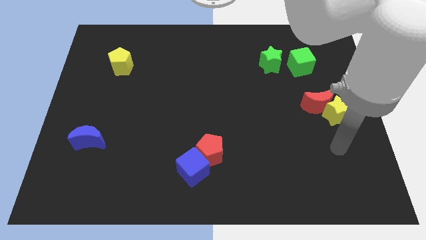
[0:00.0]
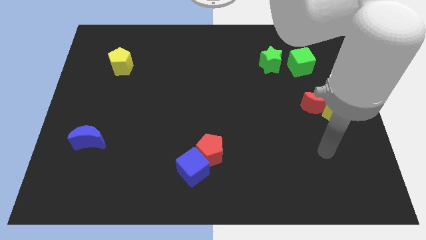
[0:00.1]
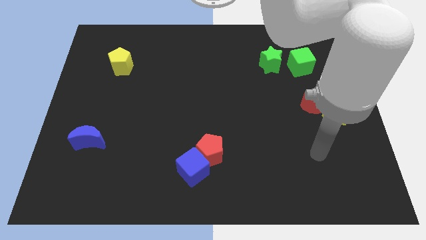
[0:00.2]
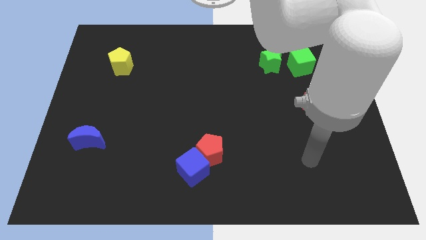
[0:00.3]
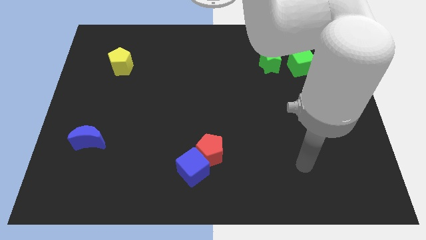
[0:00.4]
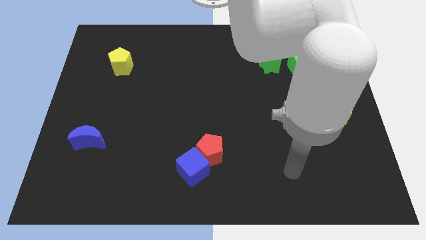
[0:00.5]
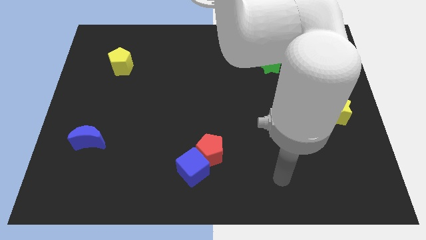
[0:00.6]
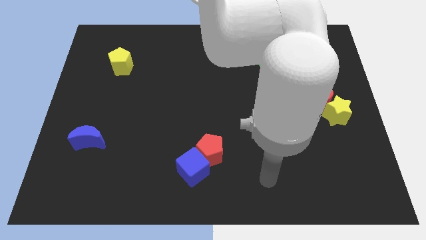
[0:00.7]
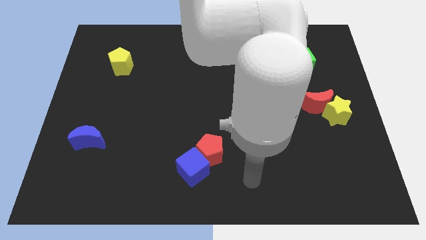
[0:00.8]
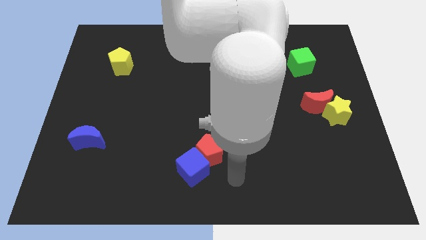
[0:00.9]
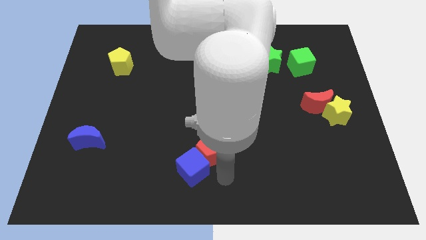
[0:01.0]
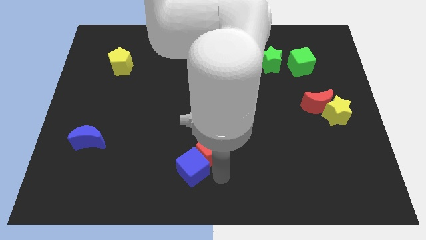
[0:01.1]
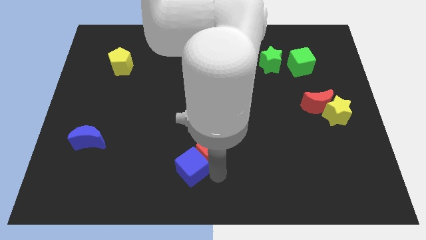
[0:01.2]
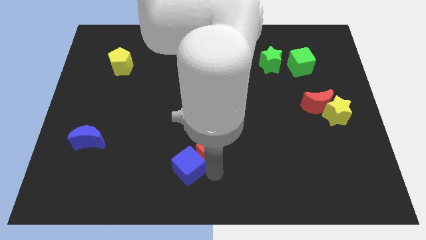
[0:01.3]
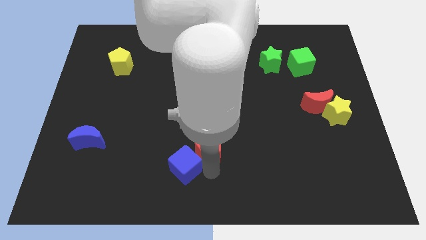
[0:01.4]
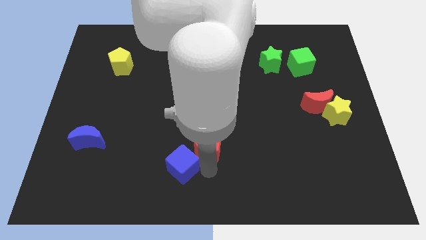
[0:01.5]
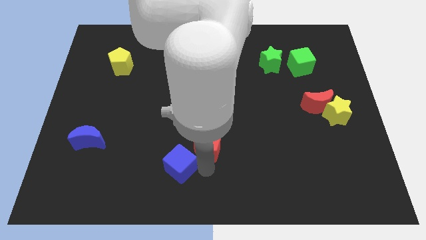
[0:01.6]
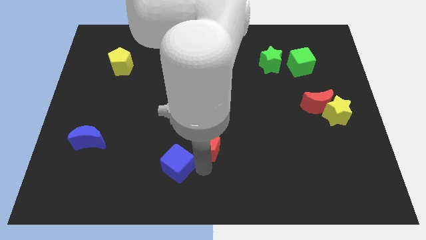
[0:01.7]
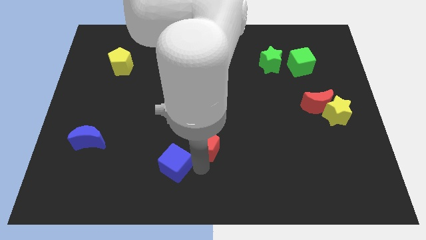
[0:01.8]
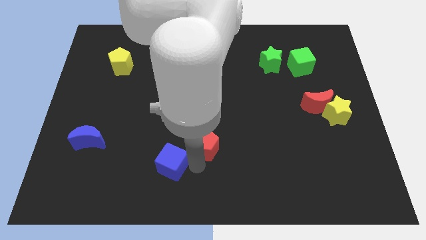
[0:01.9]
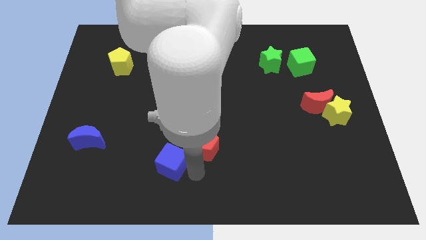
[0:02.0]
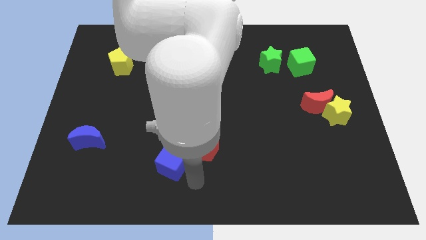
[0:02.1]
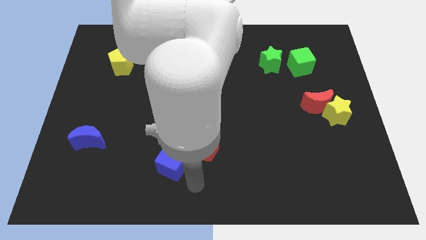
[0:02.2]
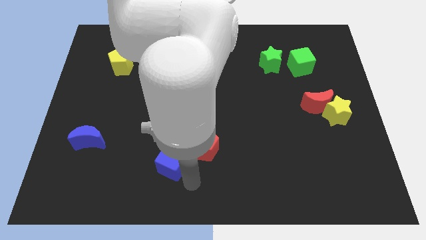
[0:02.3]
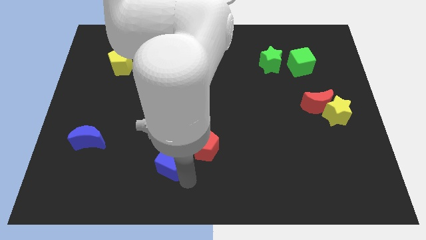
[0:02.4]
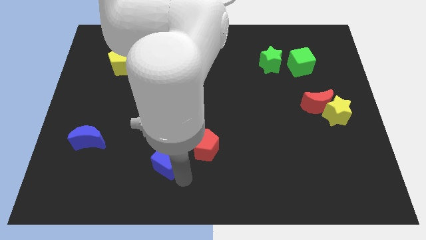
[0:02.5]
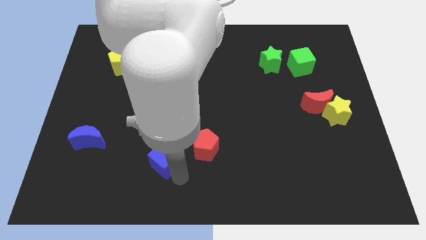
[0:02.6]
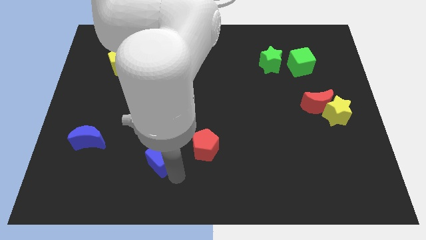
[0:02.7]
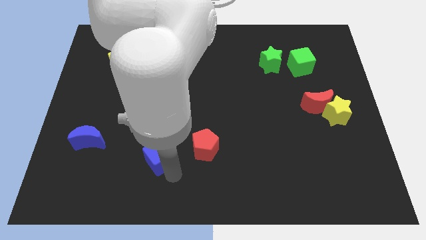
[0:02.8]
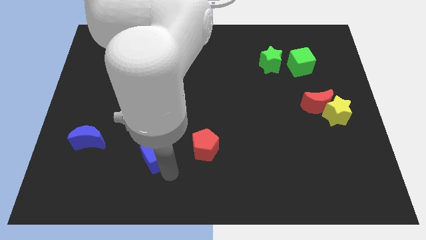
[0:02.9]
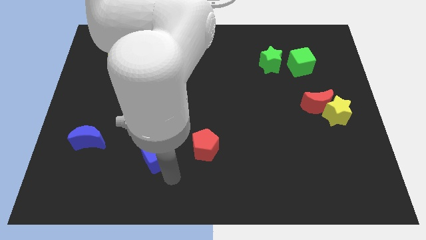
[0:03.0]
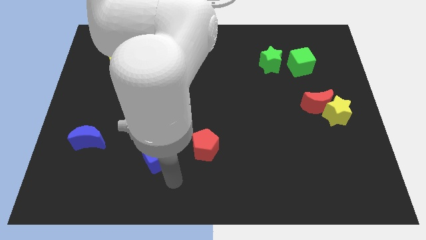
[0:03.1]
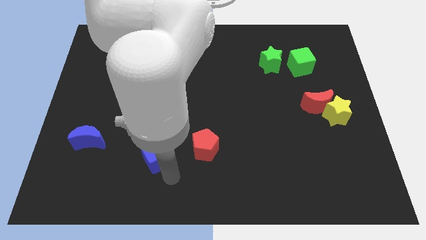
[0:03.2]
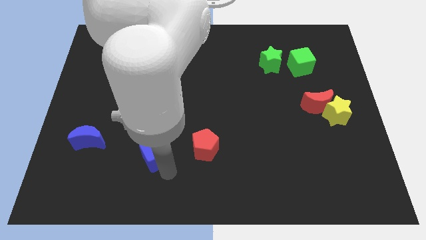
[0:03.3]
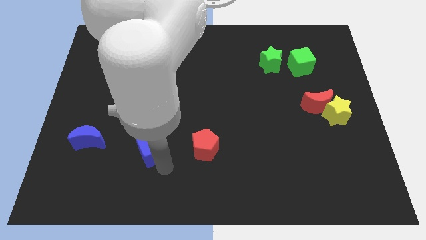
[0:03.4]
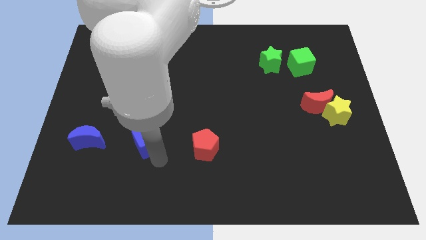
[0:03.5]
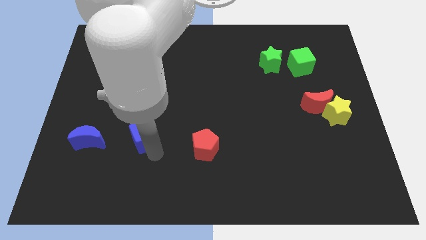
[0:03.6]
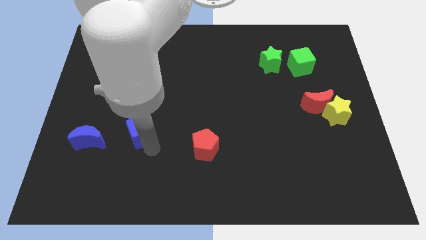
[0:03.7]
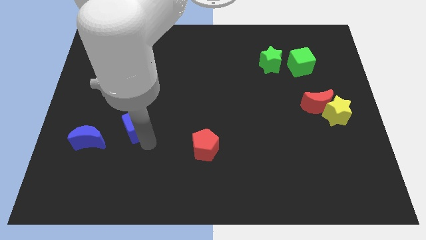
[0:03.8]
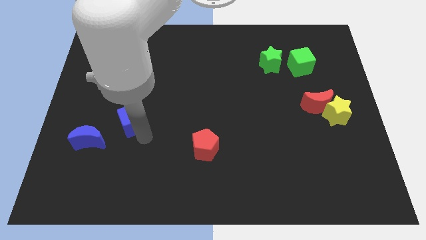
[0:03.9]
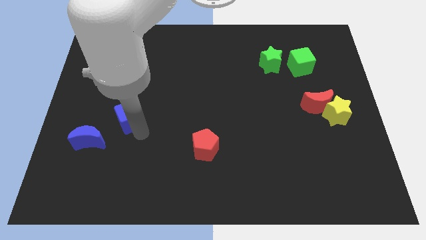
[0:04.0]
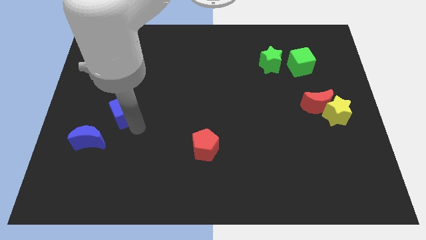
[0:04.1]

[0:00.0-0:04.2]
move the blue cube diagonally upwards and to the left

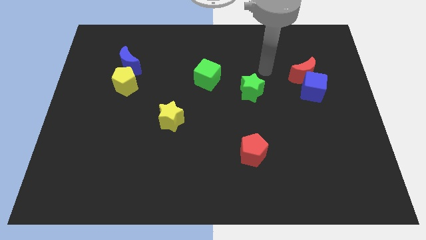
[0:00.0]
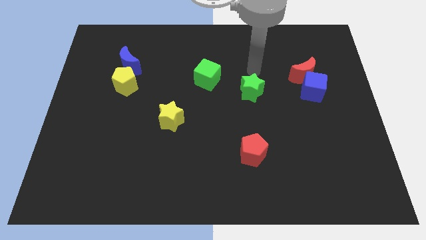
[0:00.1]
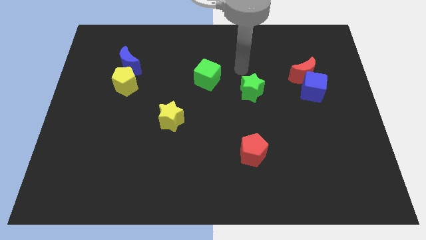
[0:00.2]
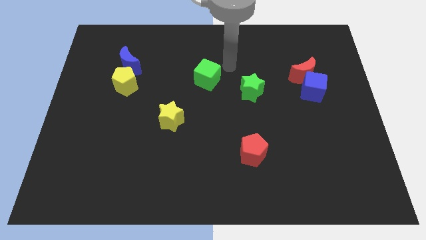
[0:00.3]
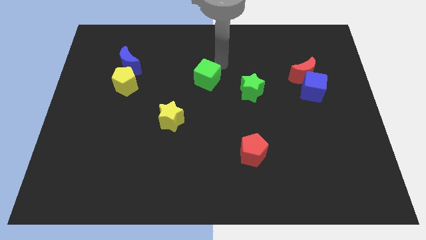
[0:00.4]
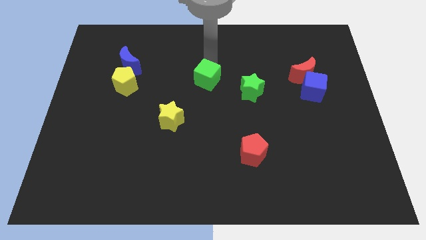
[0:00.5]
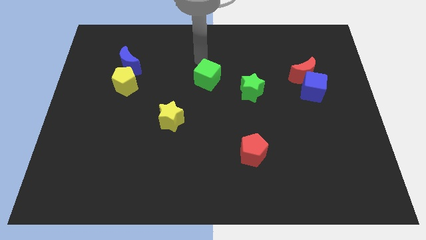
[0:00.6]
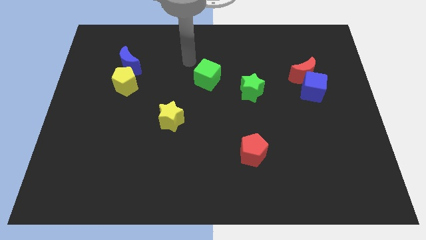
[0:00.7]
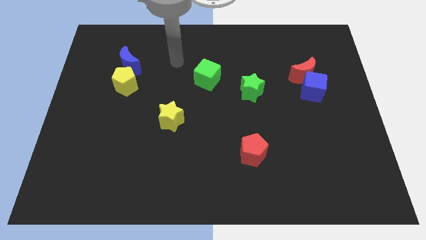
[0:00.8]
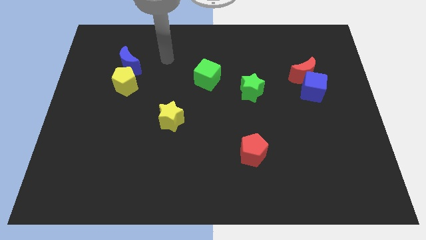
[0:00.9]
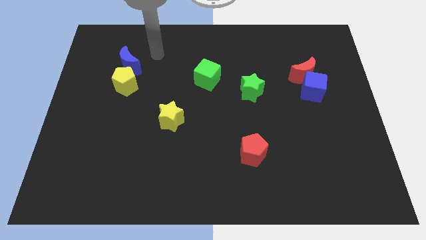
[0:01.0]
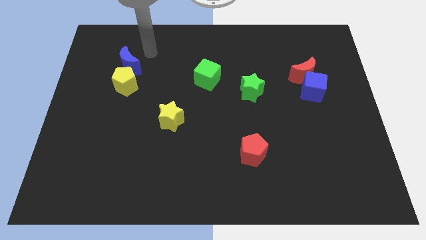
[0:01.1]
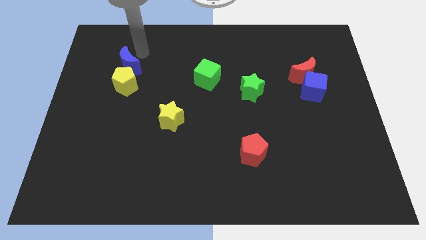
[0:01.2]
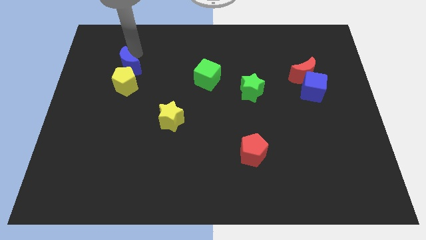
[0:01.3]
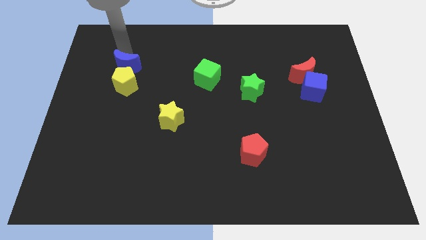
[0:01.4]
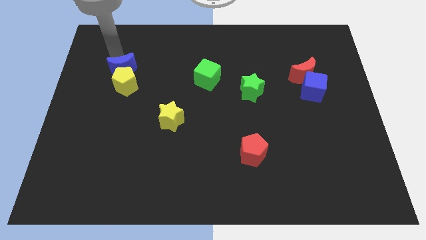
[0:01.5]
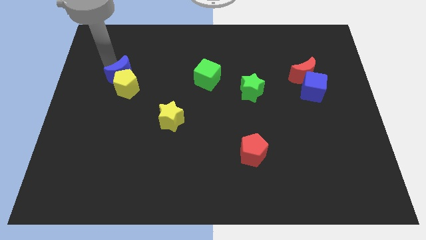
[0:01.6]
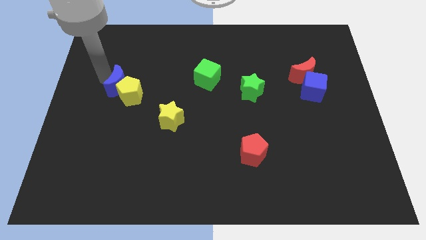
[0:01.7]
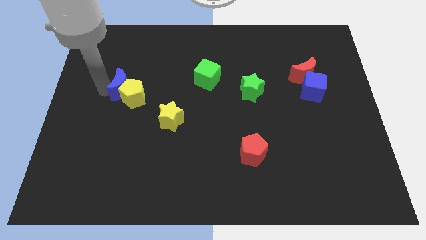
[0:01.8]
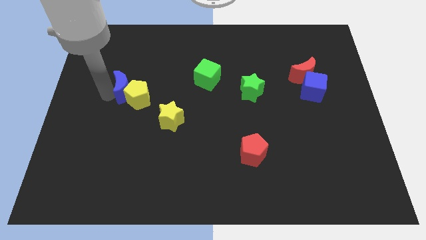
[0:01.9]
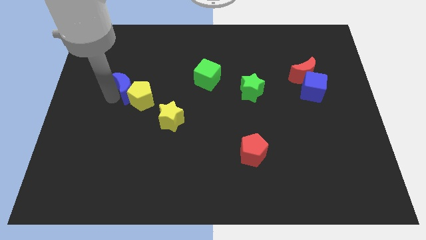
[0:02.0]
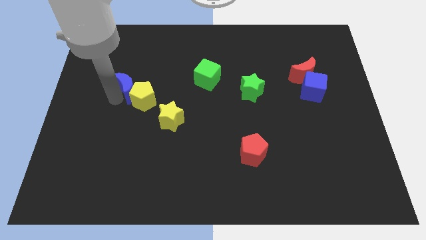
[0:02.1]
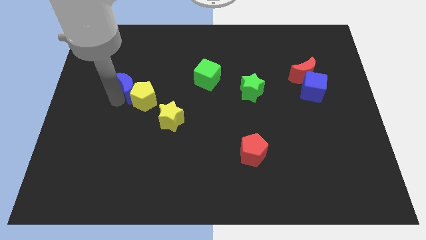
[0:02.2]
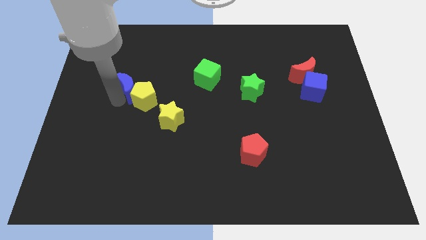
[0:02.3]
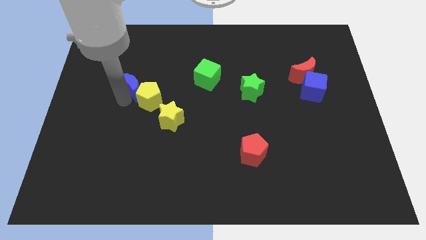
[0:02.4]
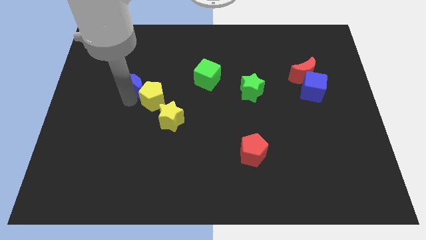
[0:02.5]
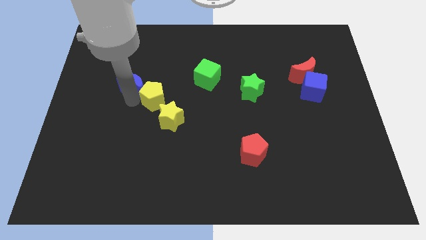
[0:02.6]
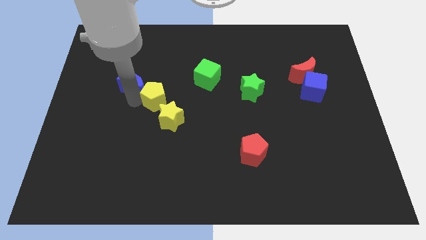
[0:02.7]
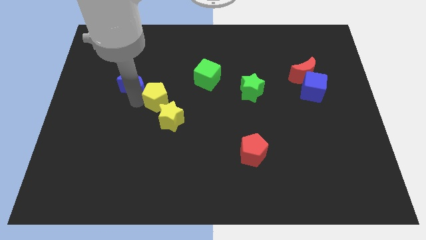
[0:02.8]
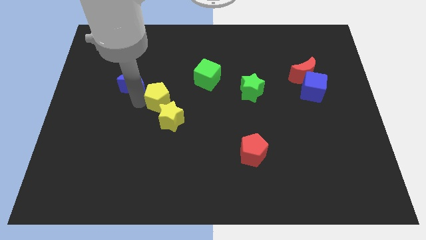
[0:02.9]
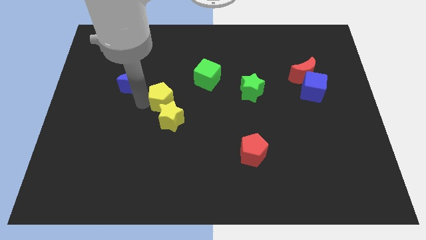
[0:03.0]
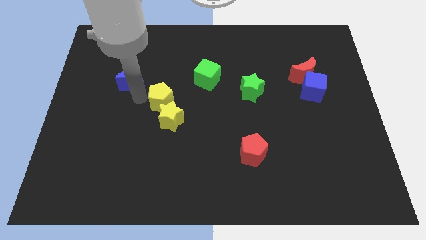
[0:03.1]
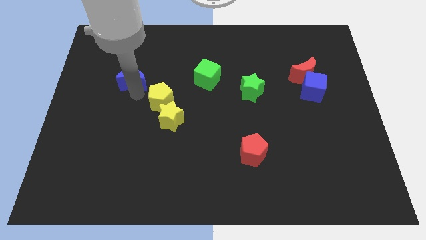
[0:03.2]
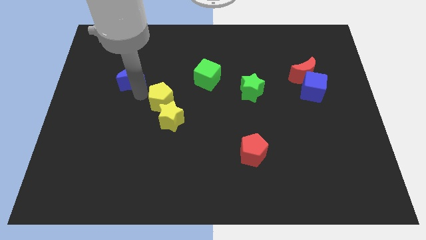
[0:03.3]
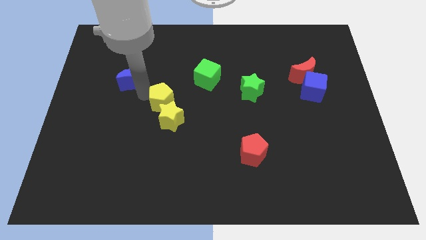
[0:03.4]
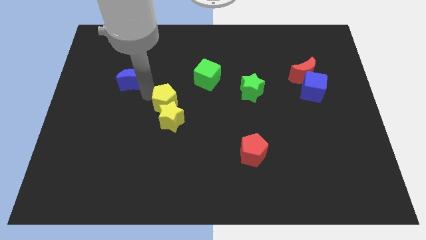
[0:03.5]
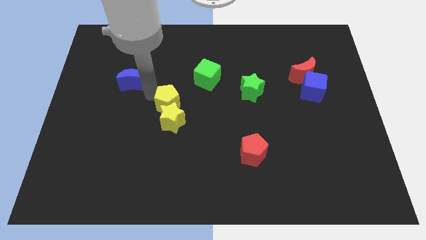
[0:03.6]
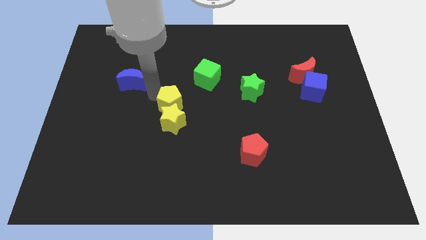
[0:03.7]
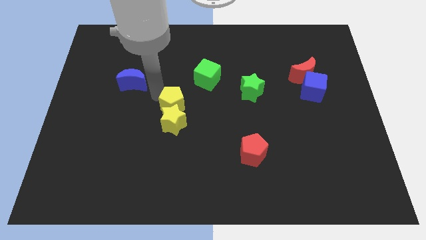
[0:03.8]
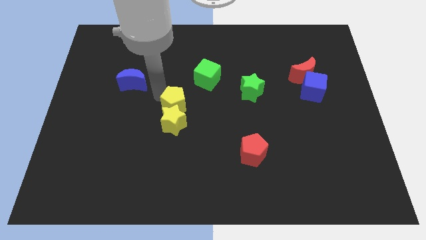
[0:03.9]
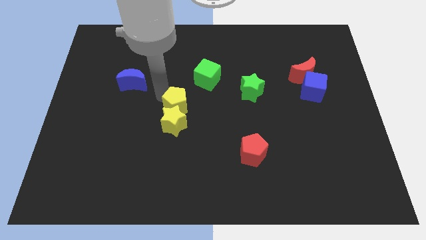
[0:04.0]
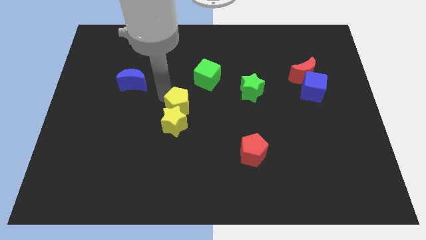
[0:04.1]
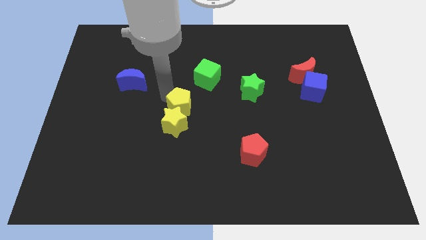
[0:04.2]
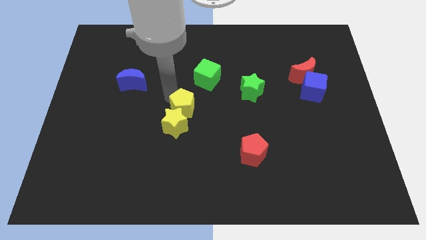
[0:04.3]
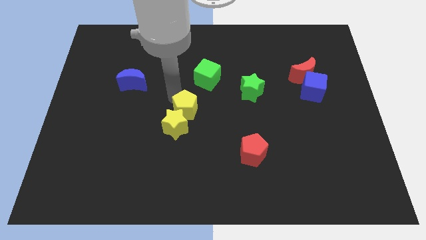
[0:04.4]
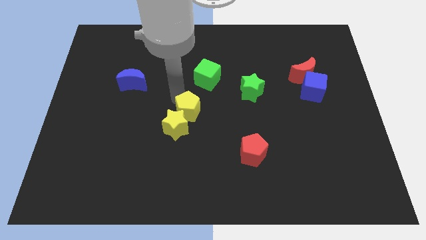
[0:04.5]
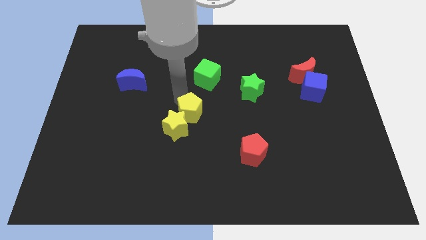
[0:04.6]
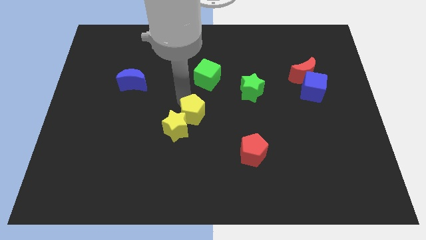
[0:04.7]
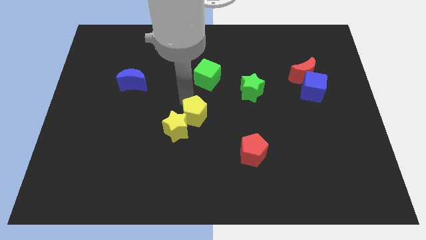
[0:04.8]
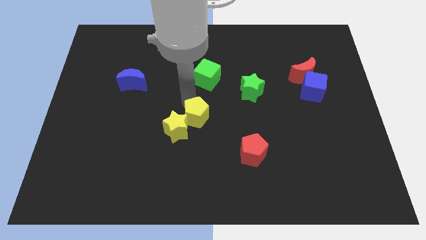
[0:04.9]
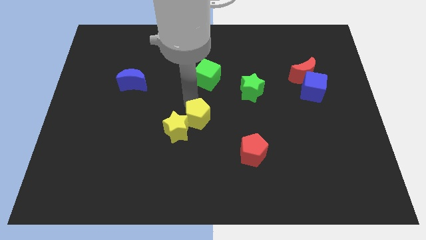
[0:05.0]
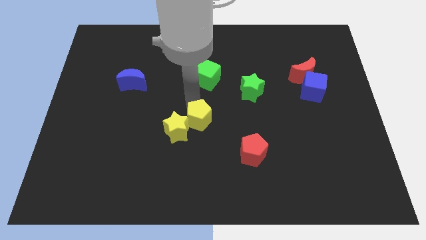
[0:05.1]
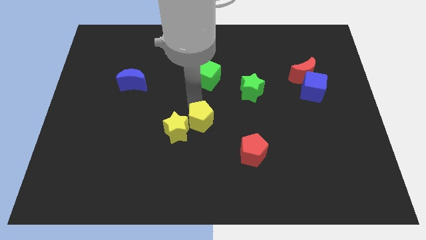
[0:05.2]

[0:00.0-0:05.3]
move the yellow pentagon downwards and then right
